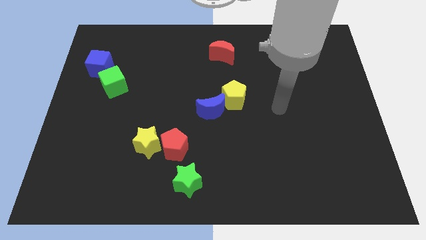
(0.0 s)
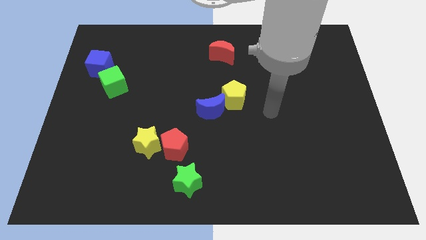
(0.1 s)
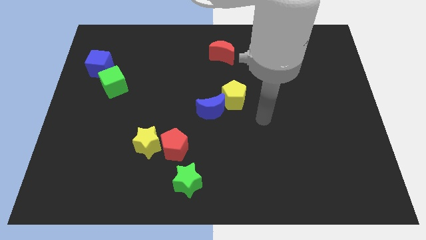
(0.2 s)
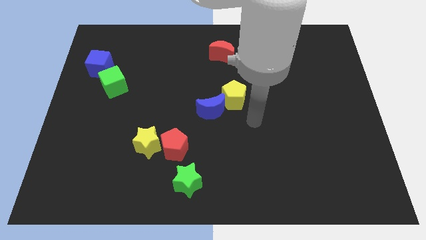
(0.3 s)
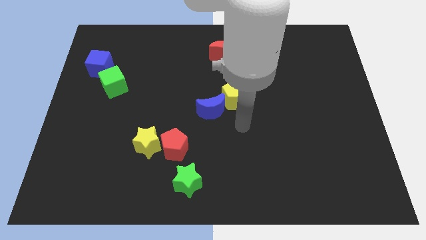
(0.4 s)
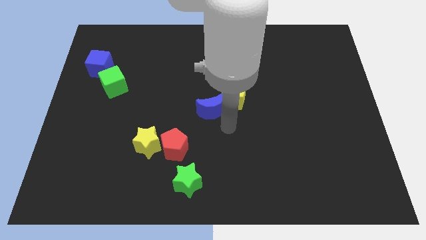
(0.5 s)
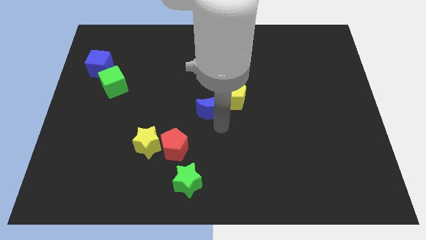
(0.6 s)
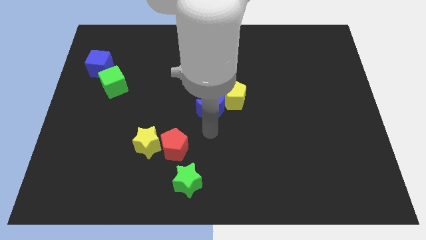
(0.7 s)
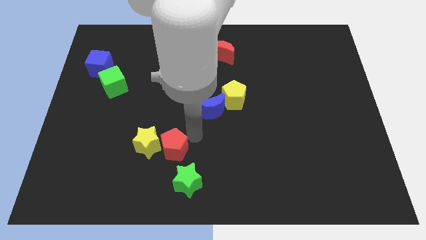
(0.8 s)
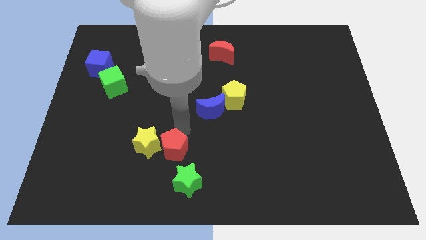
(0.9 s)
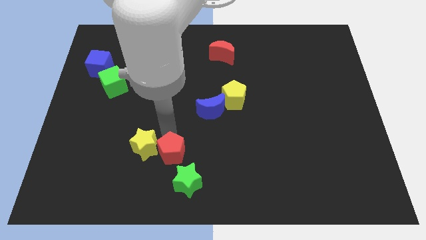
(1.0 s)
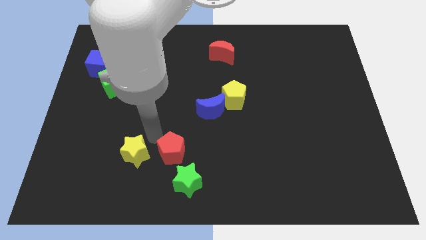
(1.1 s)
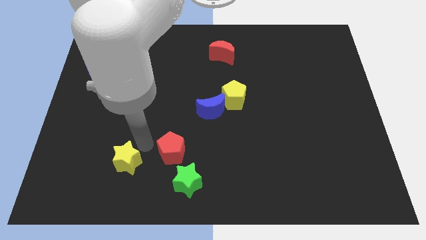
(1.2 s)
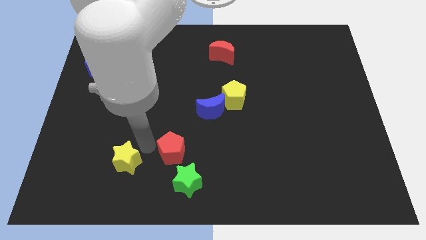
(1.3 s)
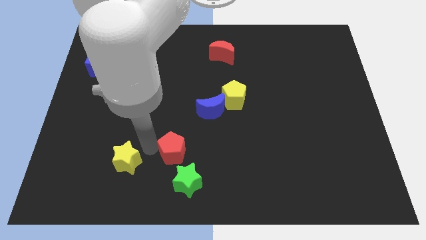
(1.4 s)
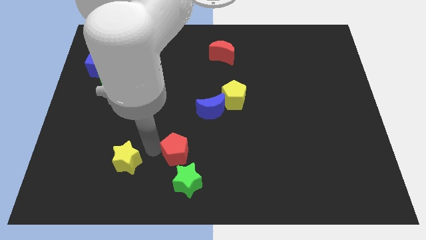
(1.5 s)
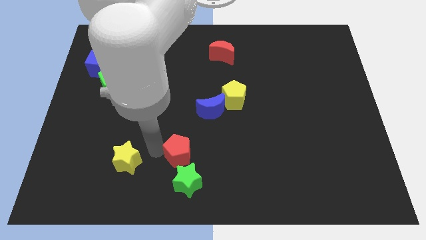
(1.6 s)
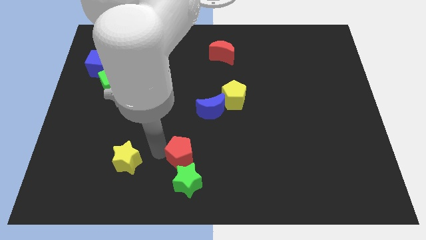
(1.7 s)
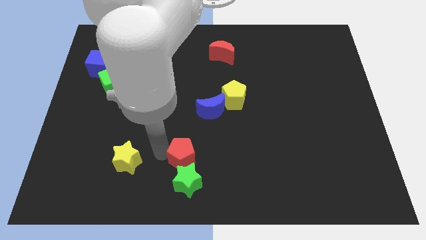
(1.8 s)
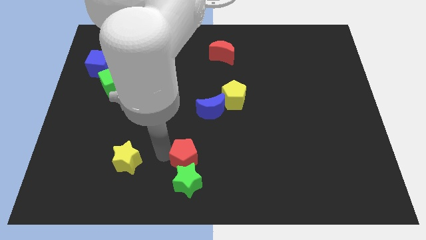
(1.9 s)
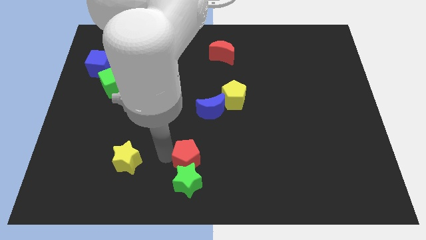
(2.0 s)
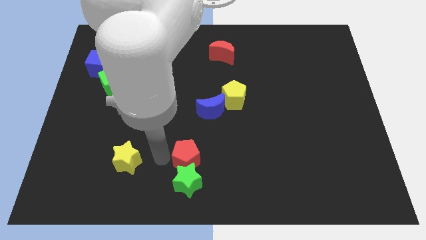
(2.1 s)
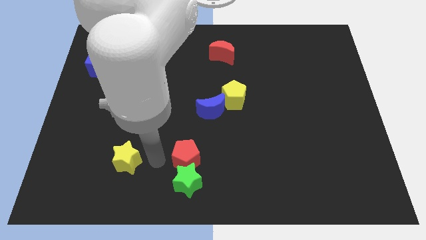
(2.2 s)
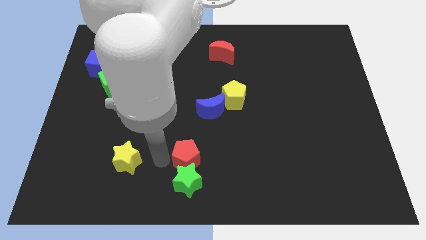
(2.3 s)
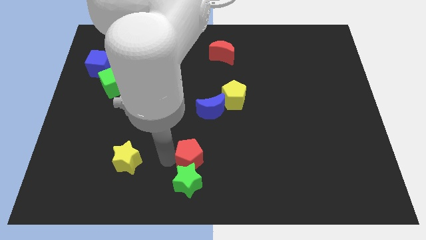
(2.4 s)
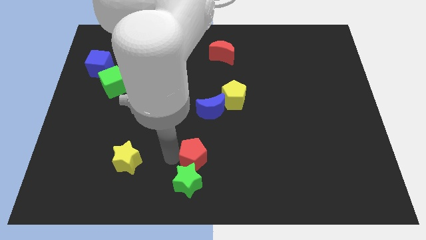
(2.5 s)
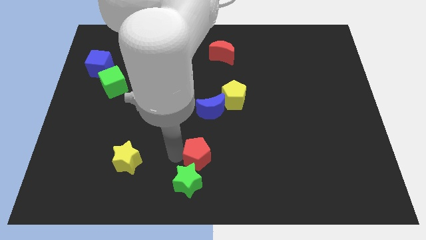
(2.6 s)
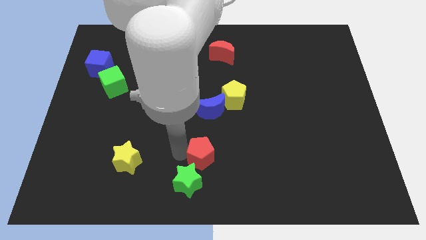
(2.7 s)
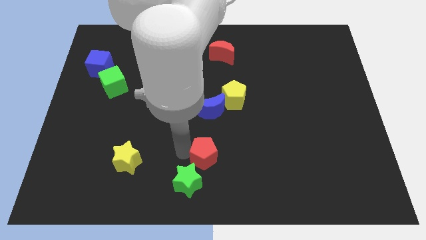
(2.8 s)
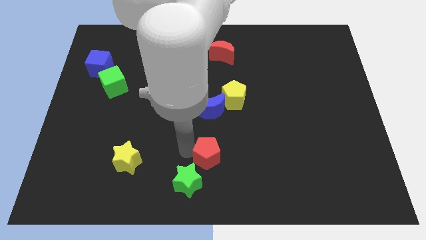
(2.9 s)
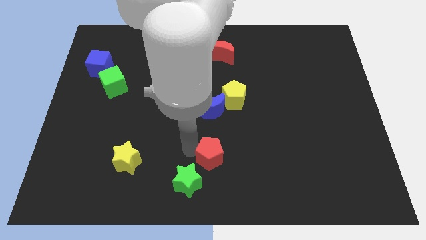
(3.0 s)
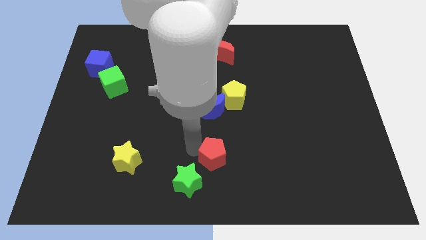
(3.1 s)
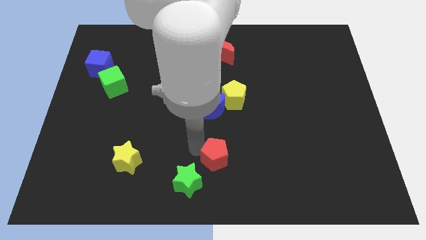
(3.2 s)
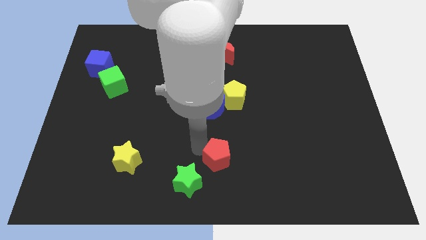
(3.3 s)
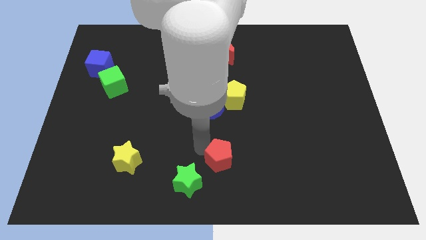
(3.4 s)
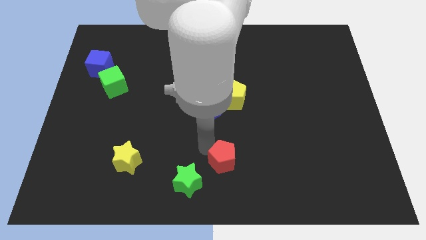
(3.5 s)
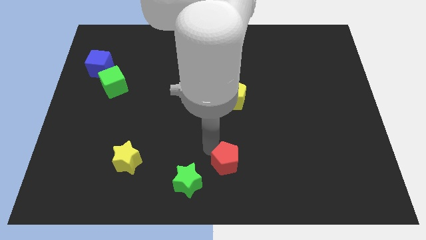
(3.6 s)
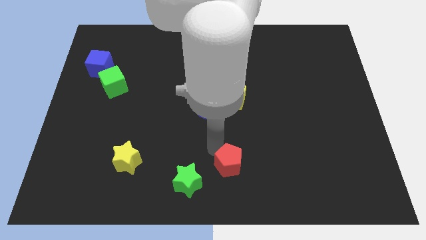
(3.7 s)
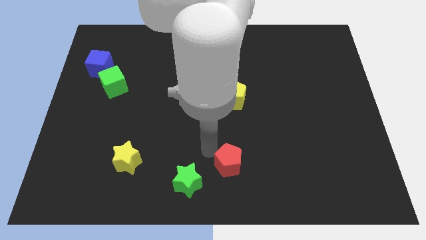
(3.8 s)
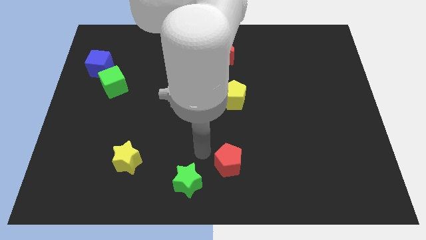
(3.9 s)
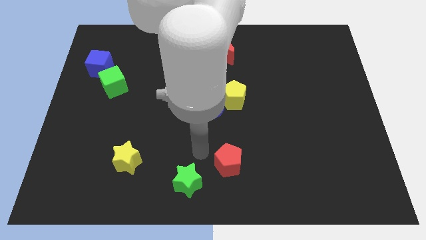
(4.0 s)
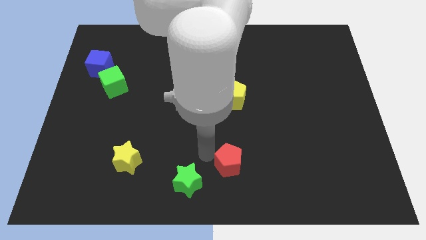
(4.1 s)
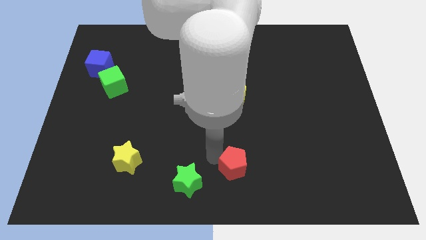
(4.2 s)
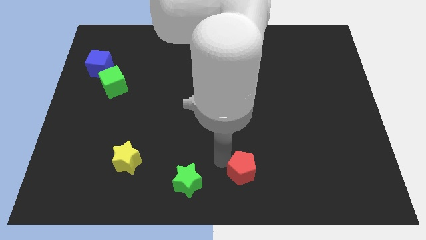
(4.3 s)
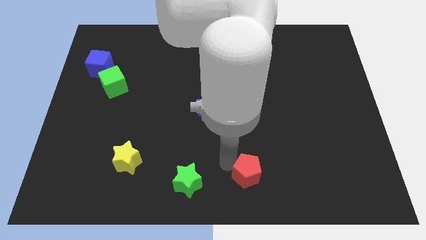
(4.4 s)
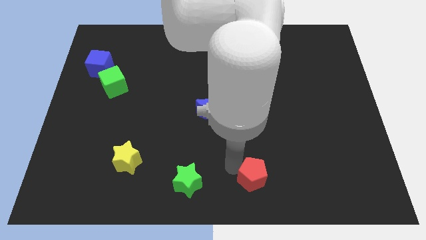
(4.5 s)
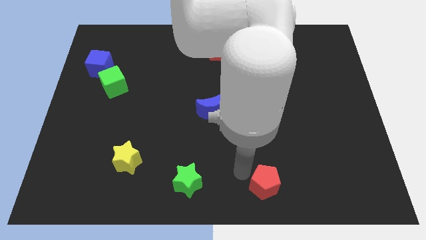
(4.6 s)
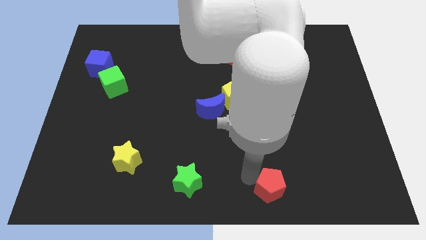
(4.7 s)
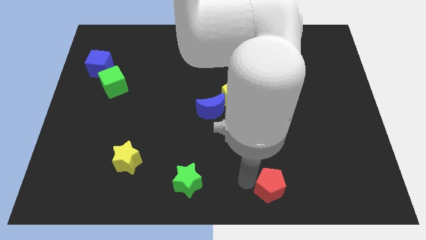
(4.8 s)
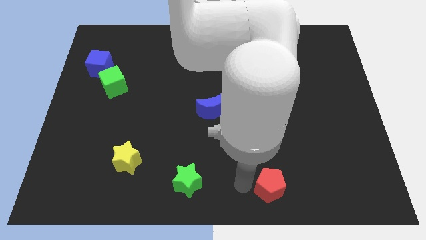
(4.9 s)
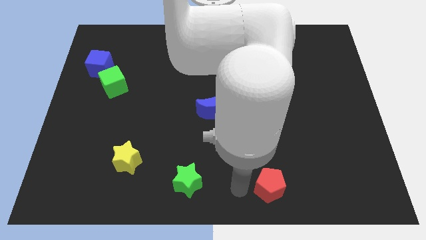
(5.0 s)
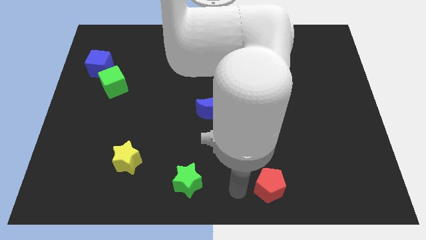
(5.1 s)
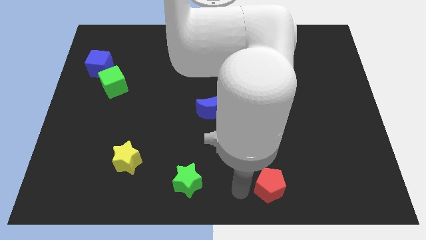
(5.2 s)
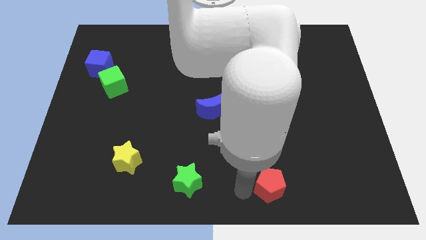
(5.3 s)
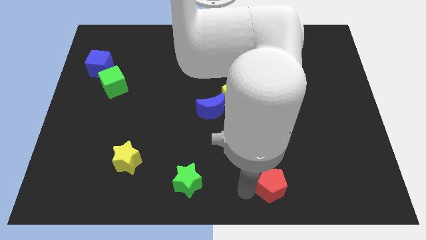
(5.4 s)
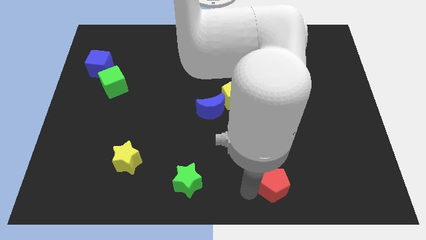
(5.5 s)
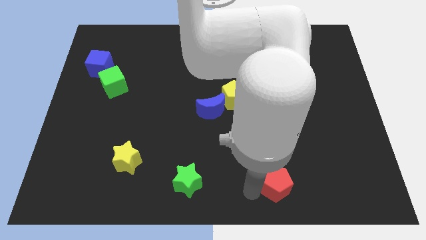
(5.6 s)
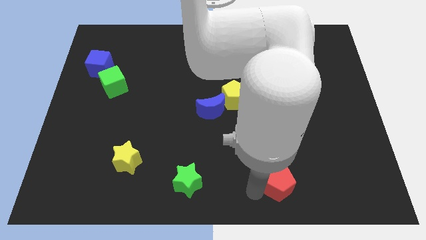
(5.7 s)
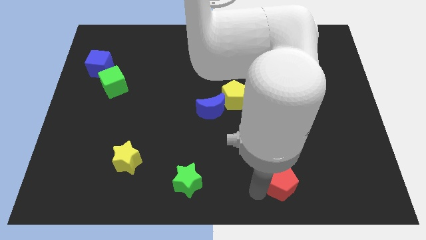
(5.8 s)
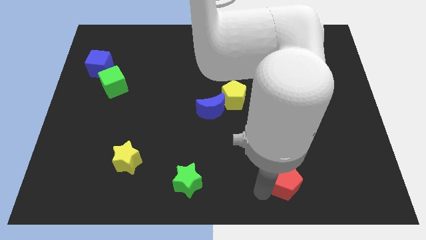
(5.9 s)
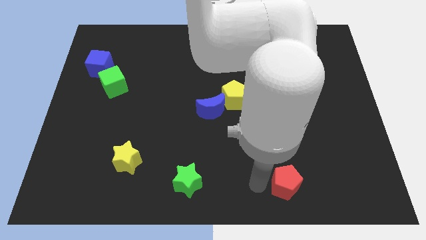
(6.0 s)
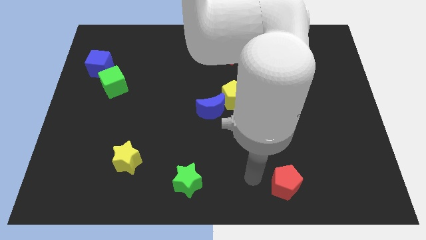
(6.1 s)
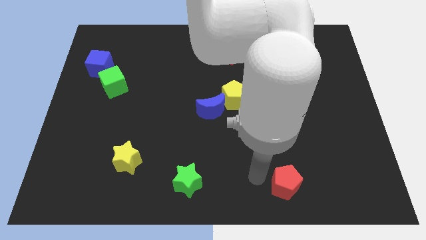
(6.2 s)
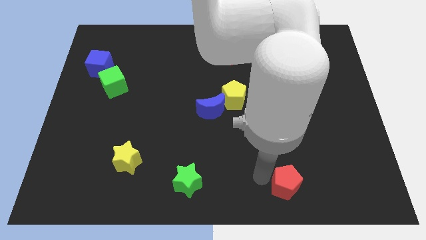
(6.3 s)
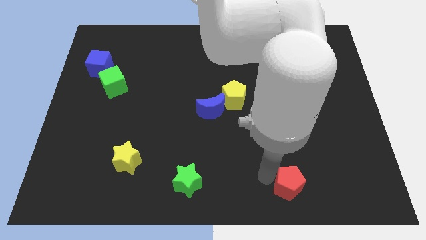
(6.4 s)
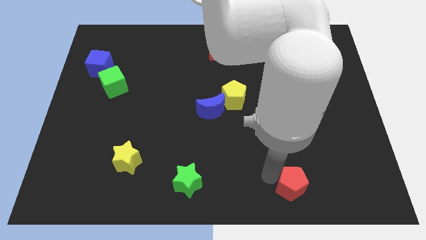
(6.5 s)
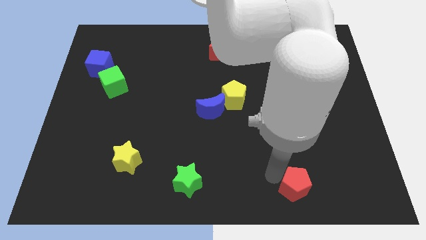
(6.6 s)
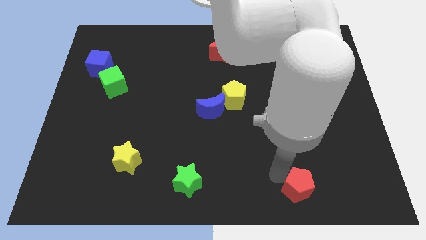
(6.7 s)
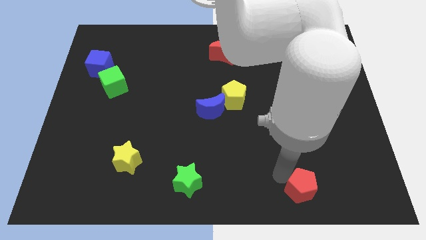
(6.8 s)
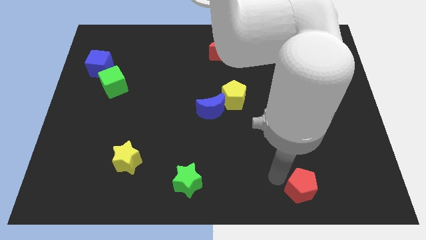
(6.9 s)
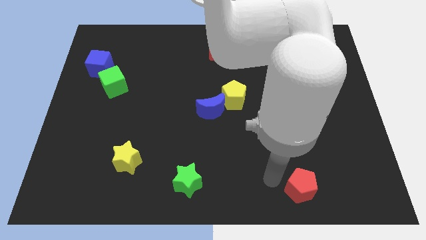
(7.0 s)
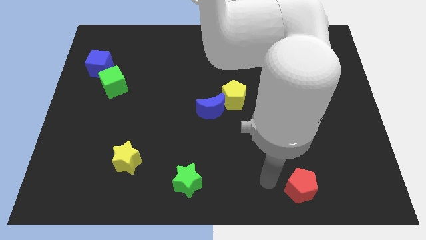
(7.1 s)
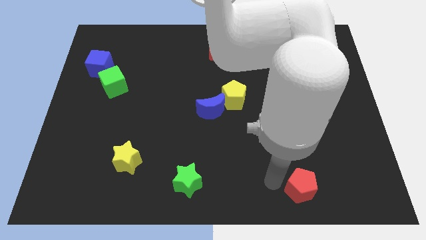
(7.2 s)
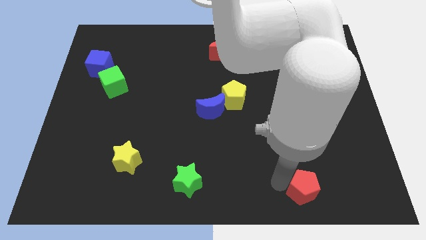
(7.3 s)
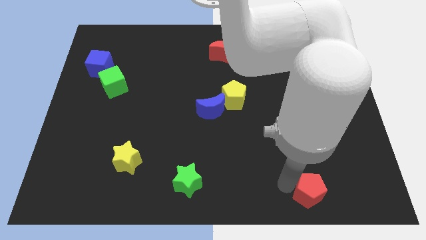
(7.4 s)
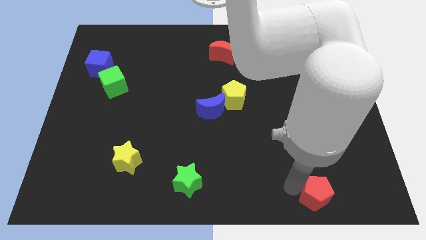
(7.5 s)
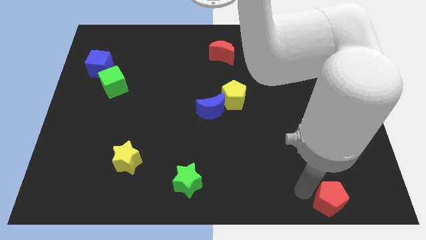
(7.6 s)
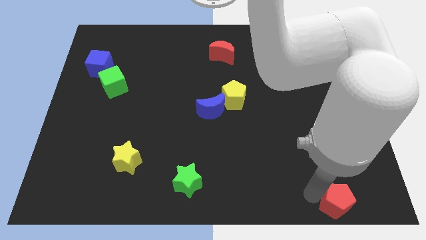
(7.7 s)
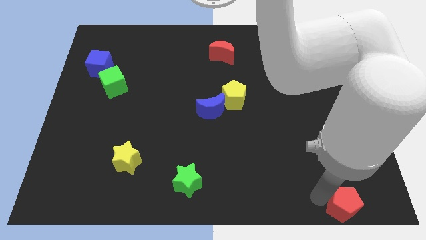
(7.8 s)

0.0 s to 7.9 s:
put the red pentagon to the bottom right

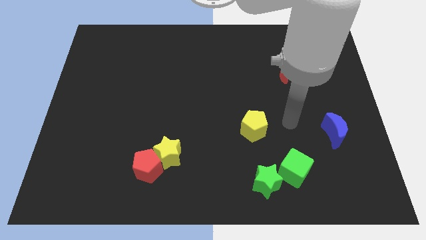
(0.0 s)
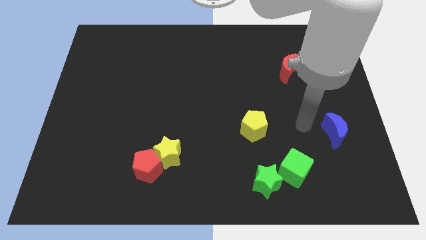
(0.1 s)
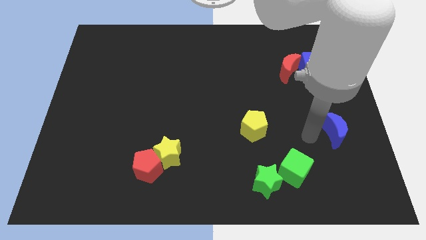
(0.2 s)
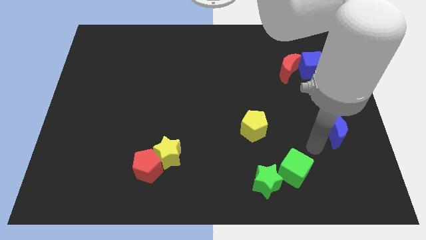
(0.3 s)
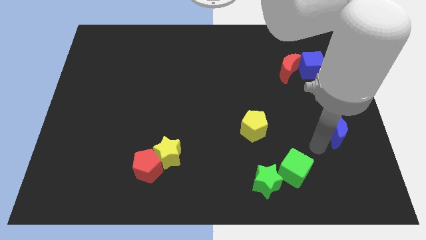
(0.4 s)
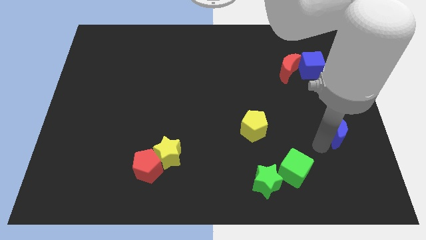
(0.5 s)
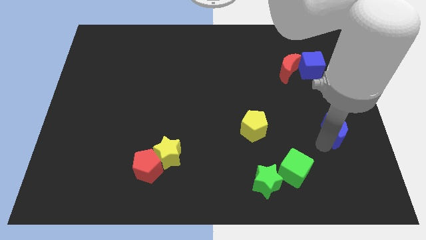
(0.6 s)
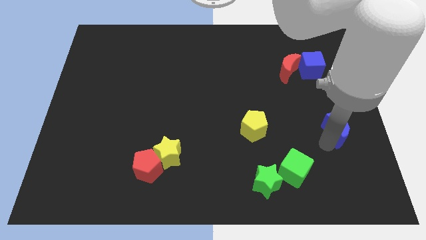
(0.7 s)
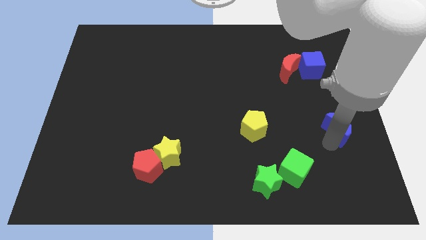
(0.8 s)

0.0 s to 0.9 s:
put the blue moon to the center right
